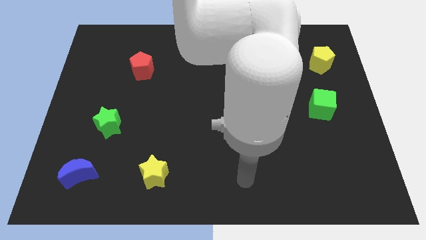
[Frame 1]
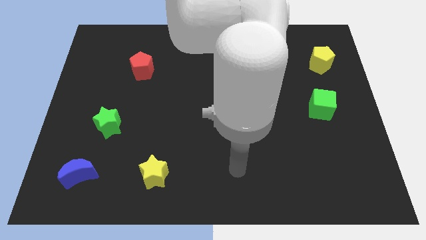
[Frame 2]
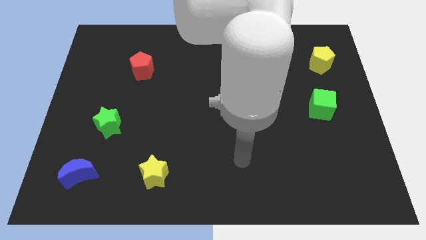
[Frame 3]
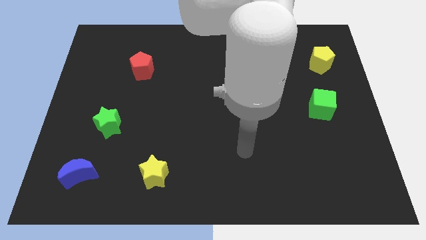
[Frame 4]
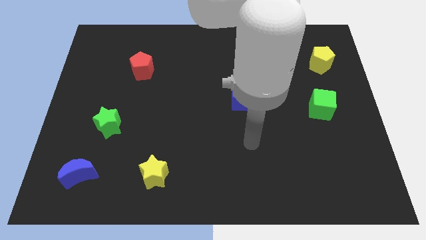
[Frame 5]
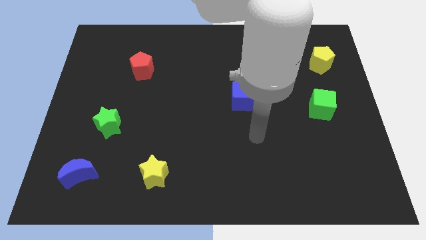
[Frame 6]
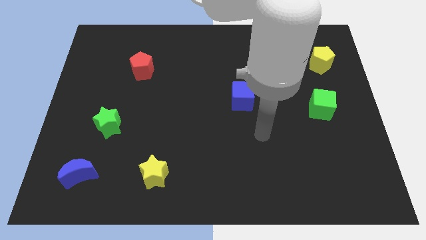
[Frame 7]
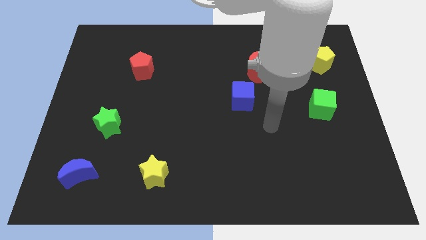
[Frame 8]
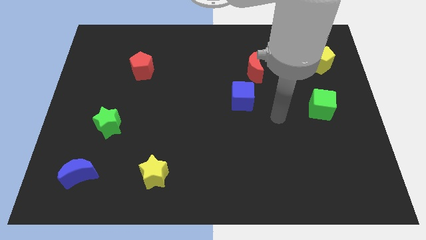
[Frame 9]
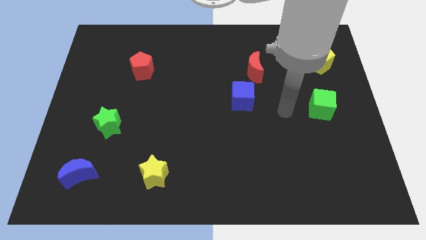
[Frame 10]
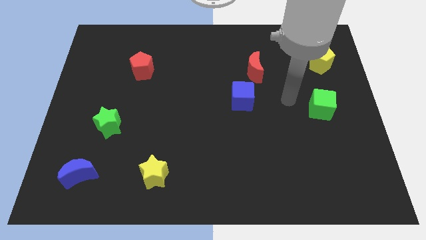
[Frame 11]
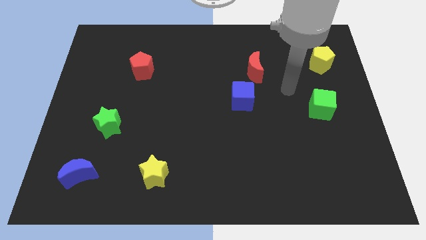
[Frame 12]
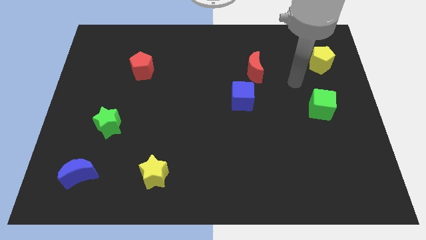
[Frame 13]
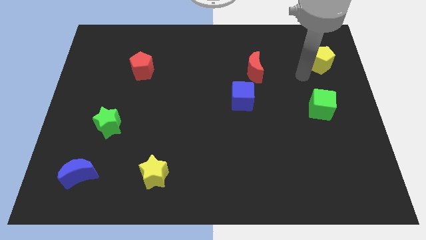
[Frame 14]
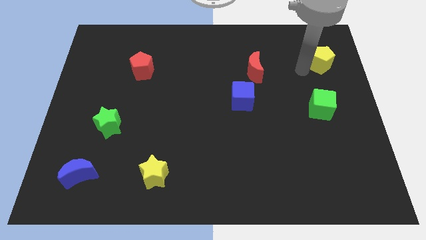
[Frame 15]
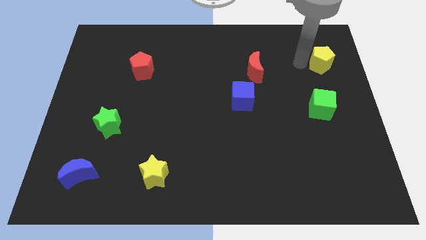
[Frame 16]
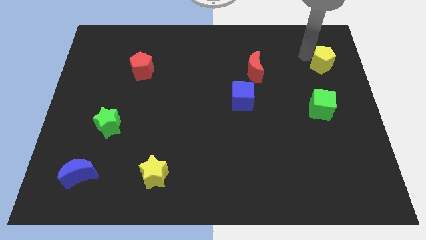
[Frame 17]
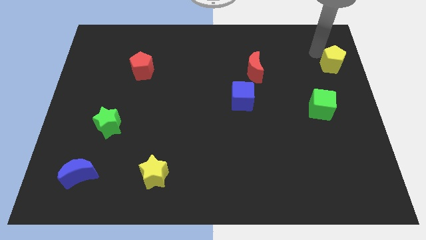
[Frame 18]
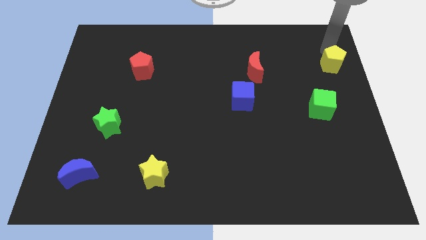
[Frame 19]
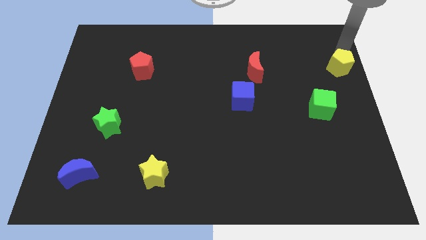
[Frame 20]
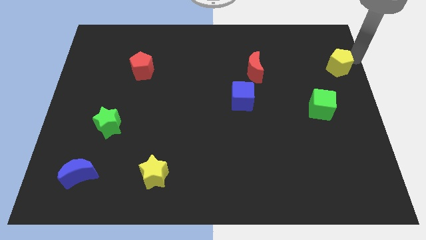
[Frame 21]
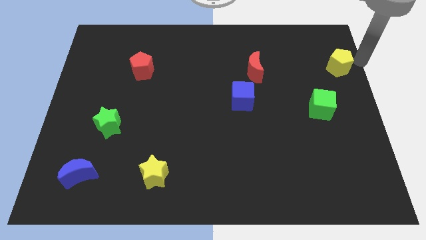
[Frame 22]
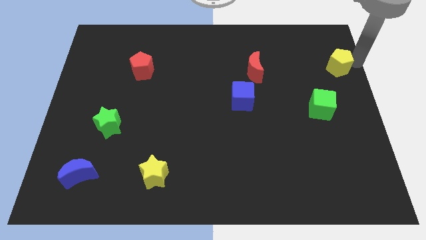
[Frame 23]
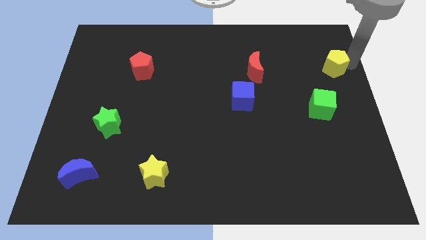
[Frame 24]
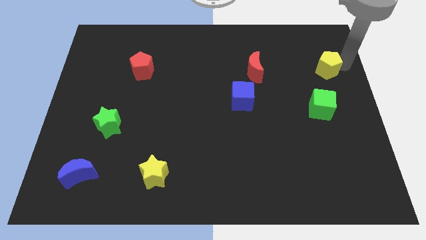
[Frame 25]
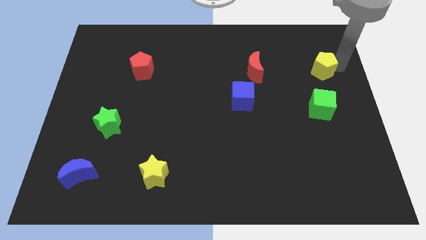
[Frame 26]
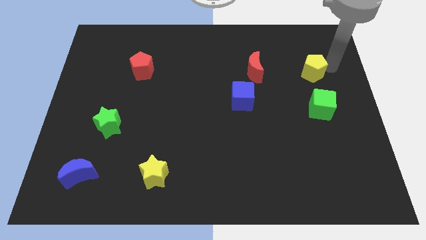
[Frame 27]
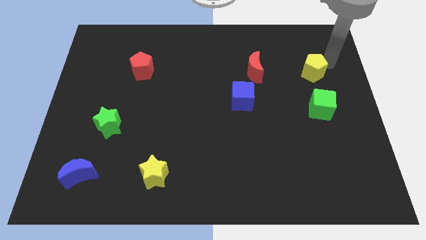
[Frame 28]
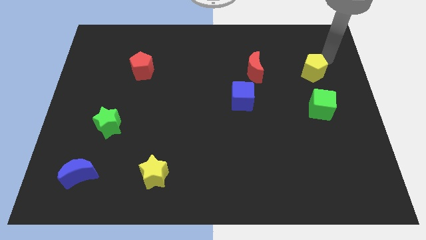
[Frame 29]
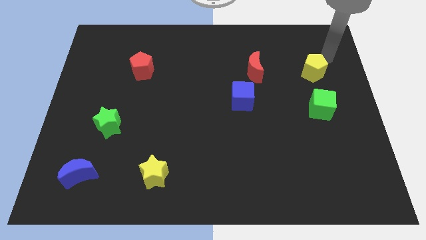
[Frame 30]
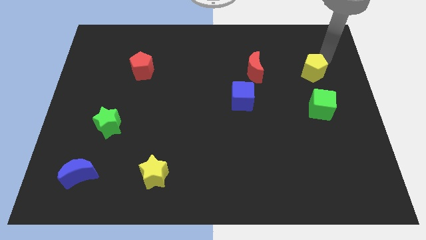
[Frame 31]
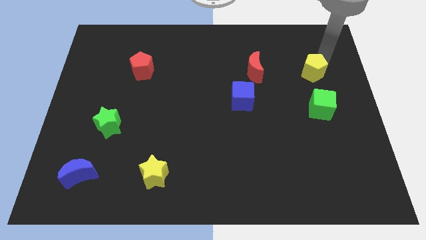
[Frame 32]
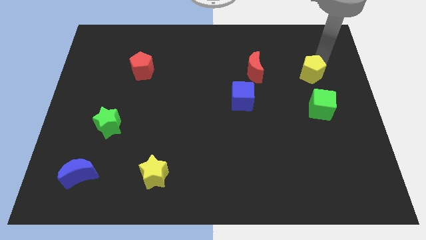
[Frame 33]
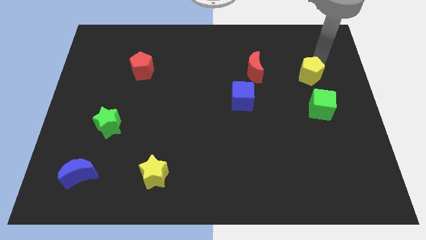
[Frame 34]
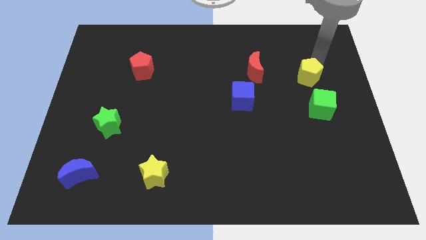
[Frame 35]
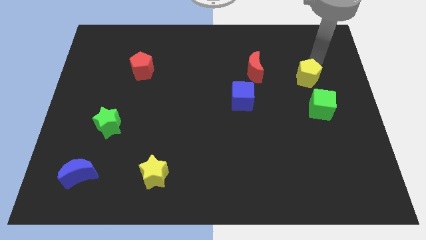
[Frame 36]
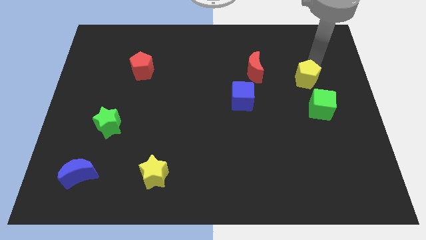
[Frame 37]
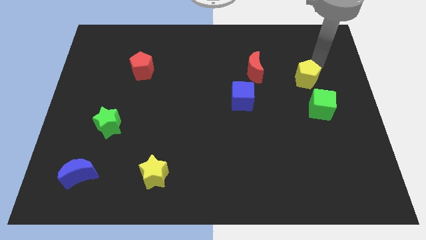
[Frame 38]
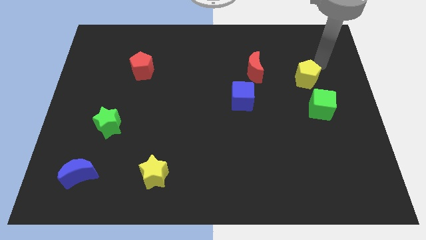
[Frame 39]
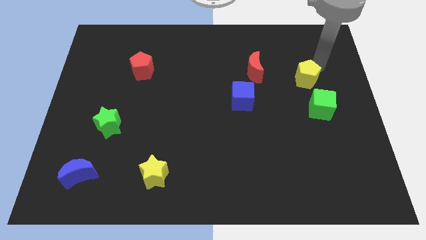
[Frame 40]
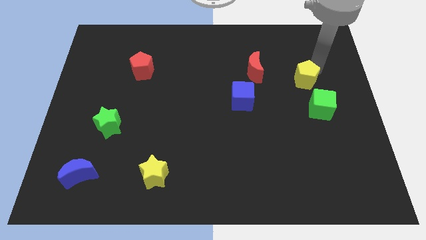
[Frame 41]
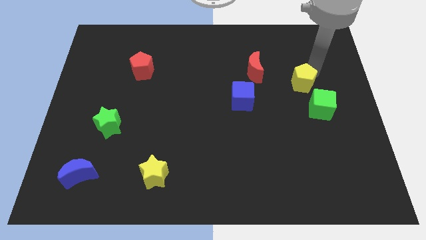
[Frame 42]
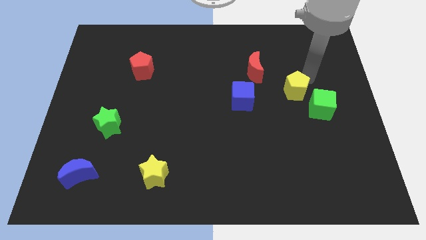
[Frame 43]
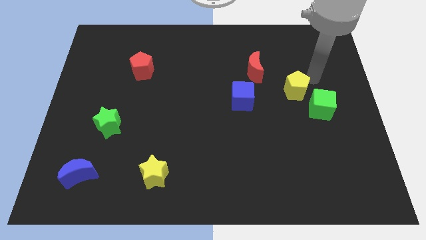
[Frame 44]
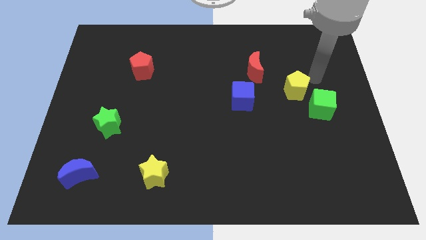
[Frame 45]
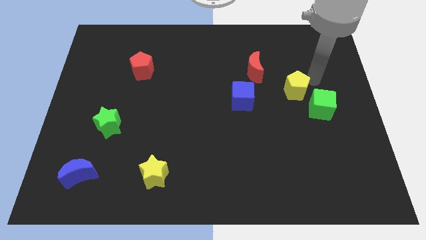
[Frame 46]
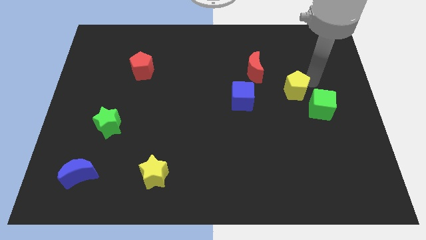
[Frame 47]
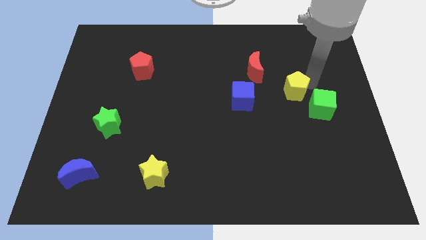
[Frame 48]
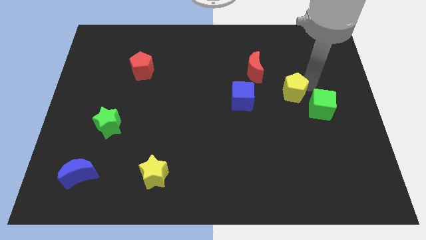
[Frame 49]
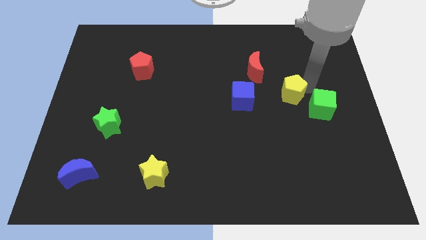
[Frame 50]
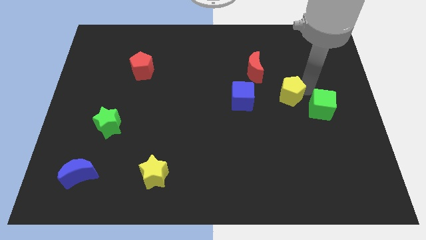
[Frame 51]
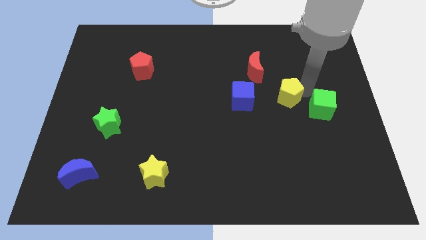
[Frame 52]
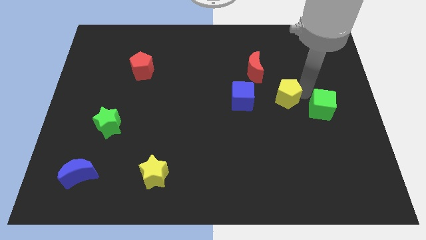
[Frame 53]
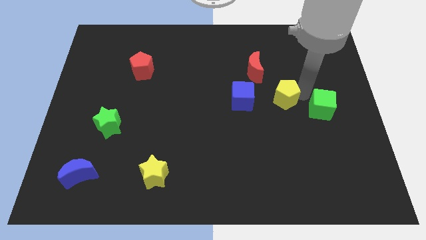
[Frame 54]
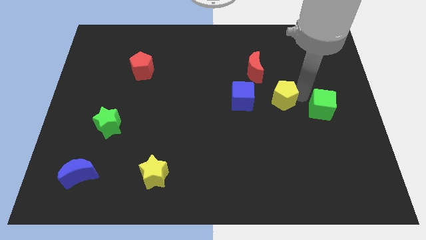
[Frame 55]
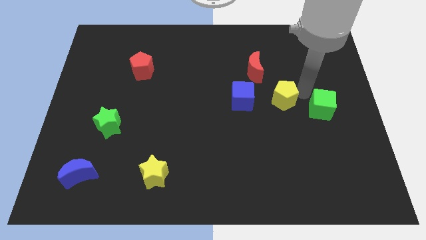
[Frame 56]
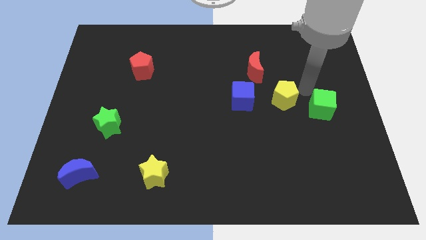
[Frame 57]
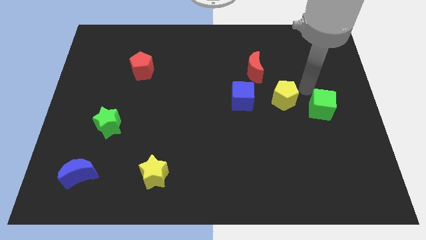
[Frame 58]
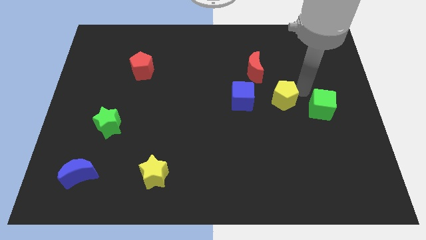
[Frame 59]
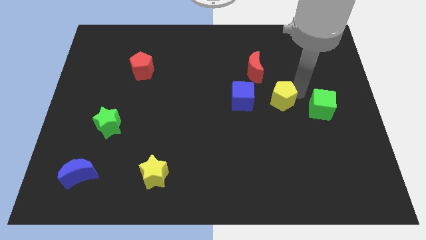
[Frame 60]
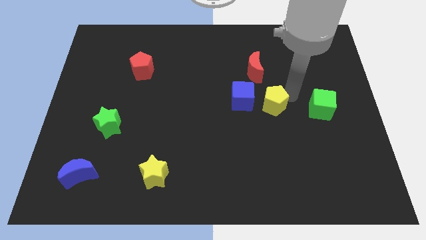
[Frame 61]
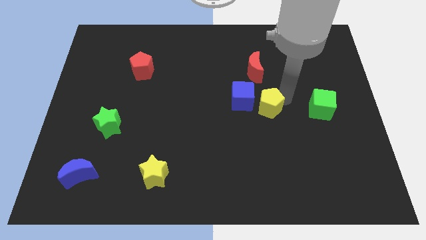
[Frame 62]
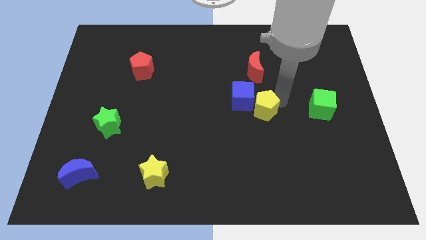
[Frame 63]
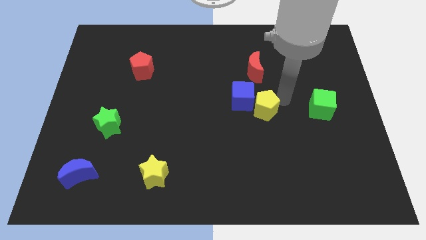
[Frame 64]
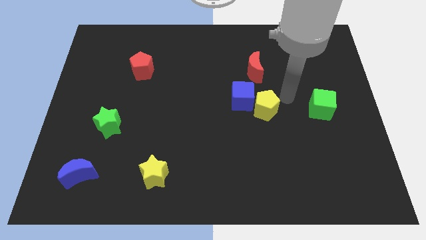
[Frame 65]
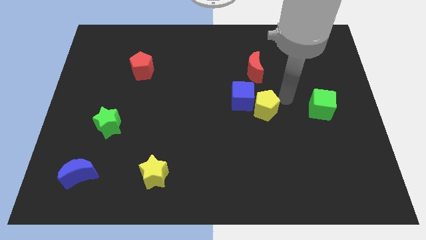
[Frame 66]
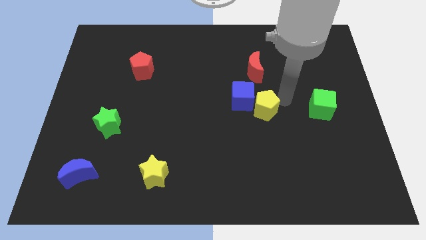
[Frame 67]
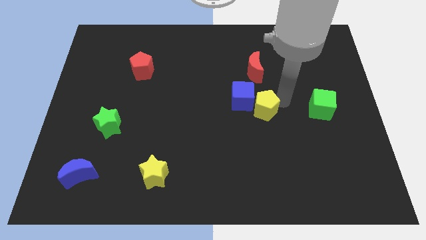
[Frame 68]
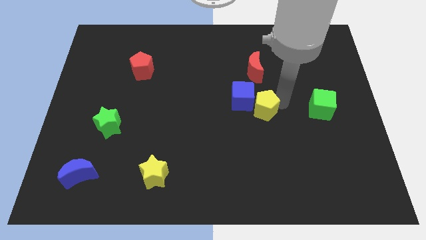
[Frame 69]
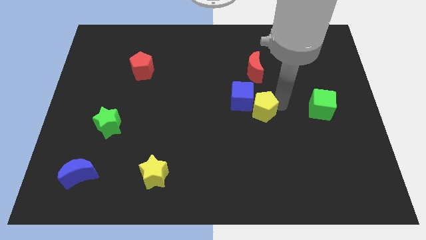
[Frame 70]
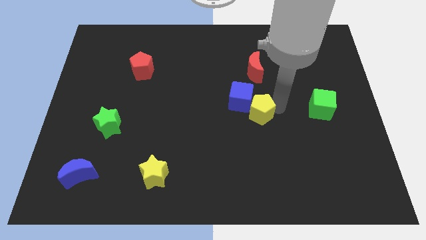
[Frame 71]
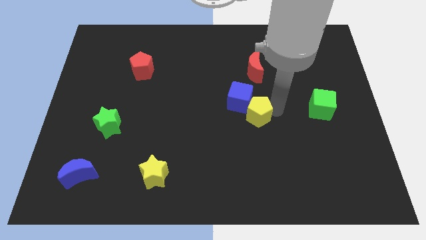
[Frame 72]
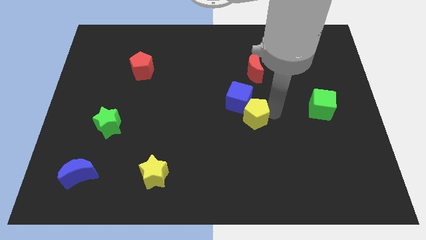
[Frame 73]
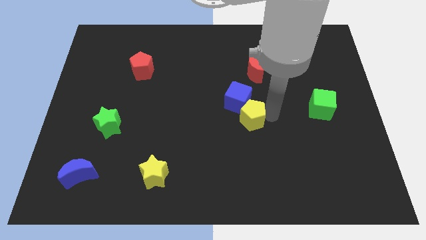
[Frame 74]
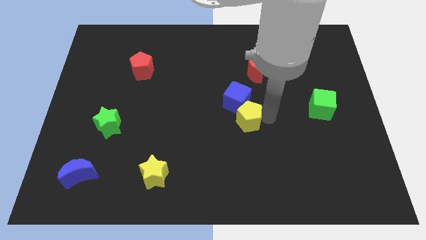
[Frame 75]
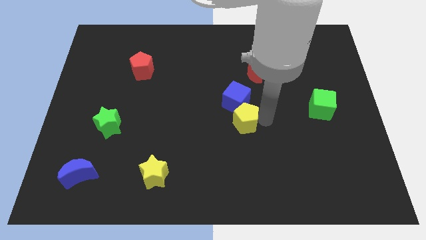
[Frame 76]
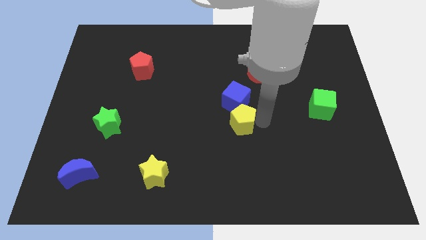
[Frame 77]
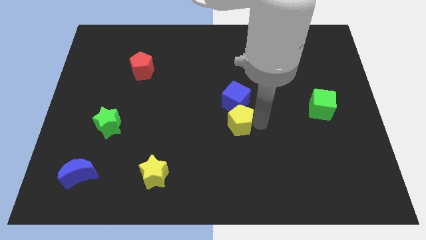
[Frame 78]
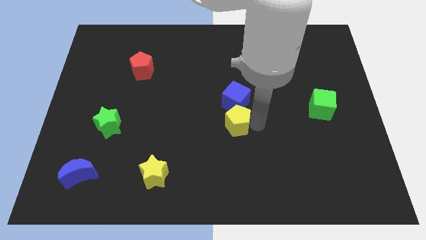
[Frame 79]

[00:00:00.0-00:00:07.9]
slide the yellow pentagon to the bottom left of the blue cube
